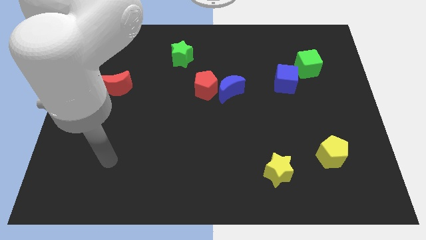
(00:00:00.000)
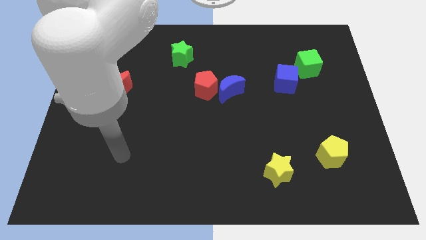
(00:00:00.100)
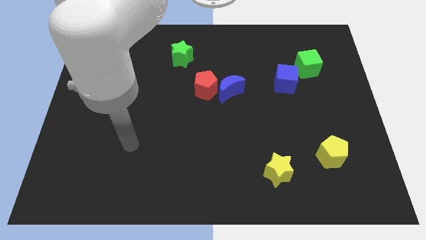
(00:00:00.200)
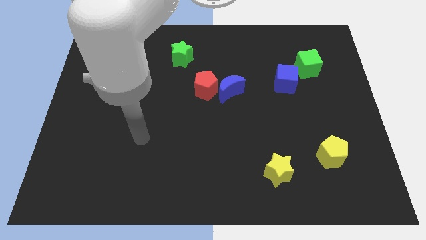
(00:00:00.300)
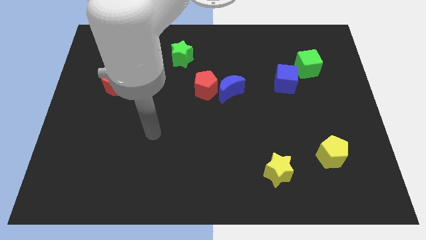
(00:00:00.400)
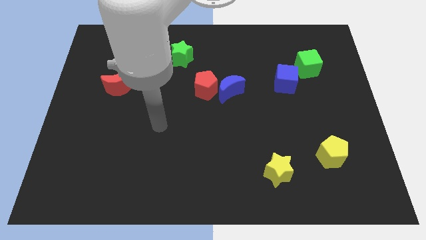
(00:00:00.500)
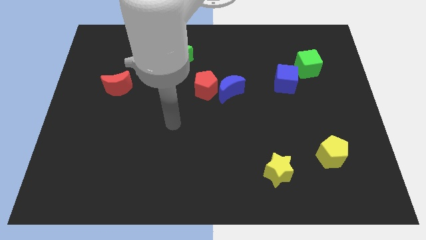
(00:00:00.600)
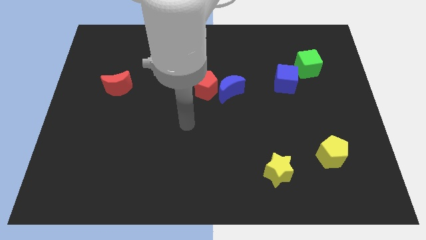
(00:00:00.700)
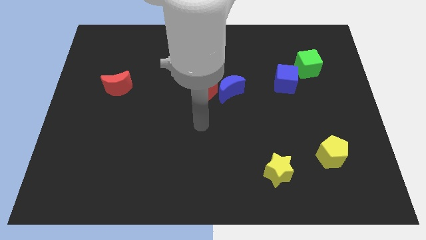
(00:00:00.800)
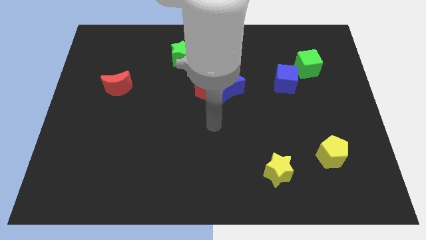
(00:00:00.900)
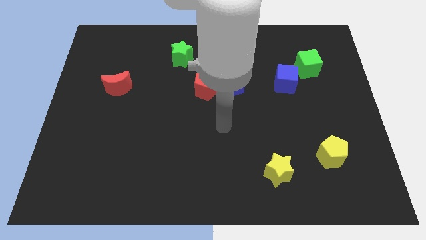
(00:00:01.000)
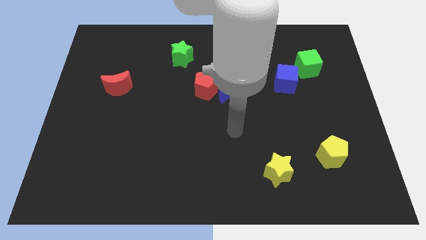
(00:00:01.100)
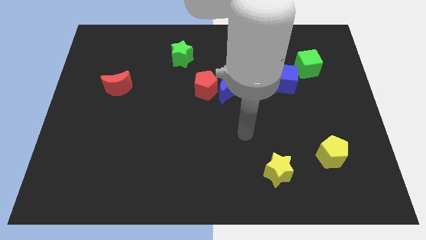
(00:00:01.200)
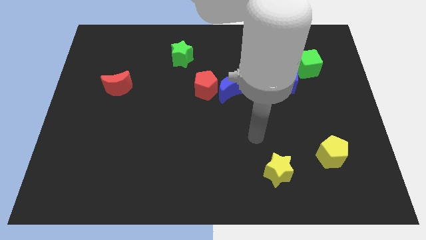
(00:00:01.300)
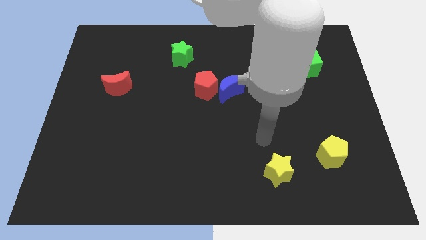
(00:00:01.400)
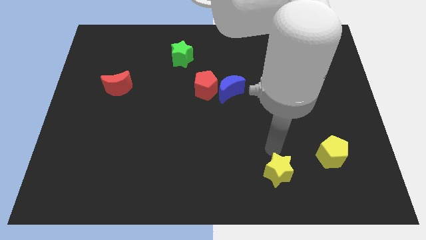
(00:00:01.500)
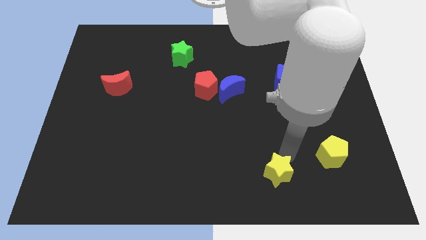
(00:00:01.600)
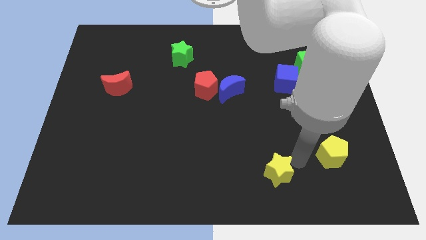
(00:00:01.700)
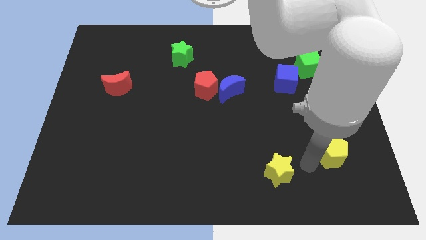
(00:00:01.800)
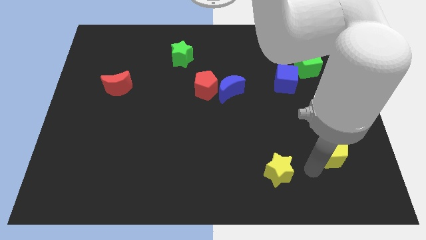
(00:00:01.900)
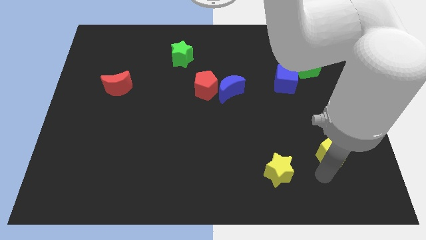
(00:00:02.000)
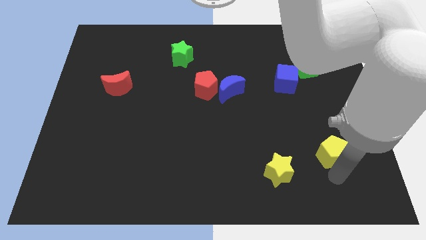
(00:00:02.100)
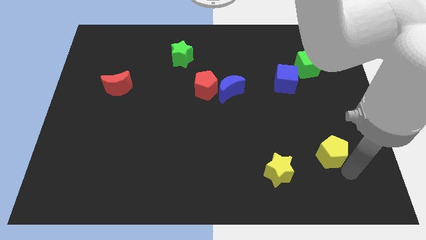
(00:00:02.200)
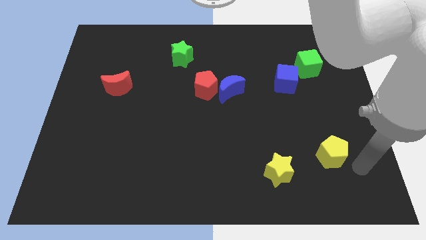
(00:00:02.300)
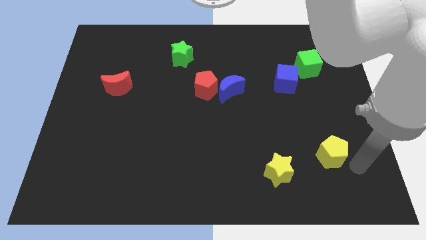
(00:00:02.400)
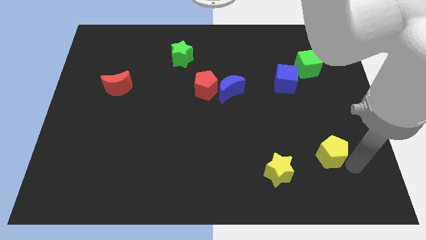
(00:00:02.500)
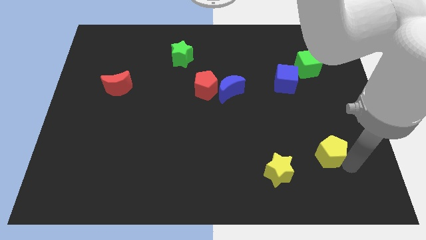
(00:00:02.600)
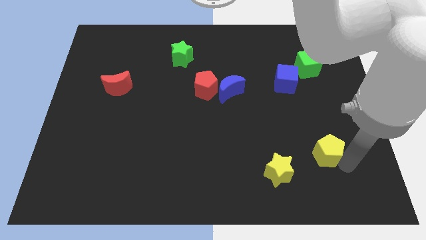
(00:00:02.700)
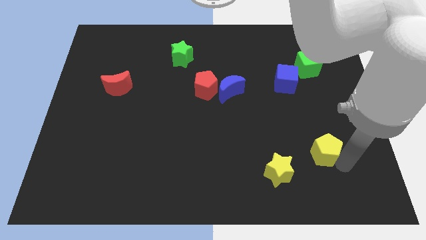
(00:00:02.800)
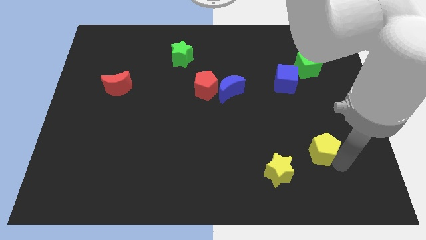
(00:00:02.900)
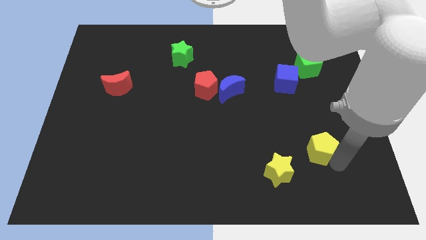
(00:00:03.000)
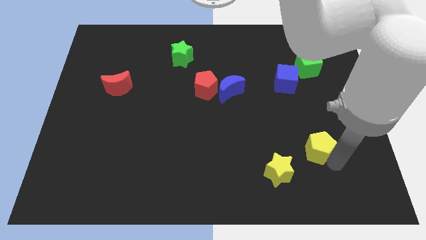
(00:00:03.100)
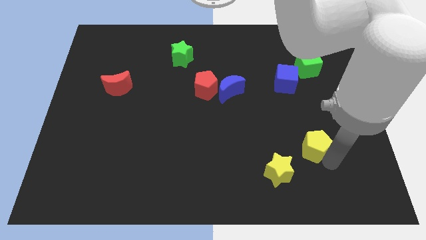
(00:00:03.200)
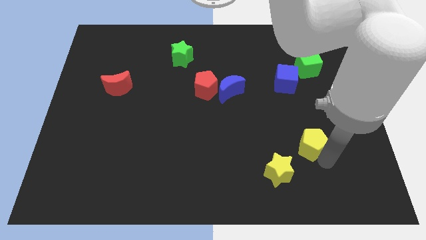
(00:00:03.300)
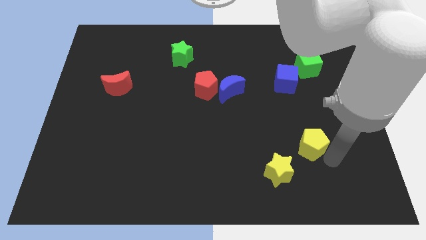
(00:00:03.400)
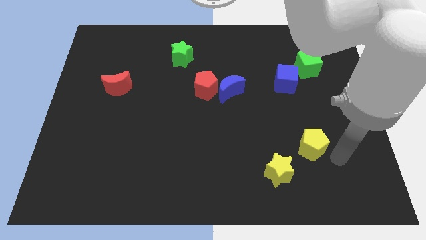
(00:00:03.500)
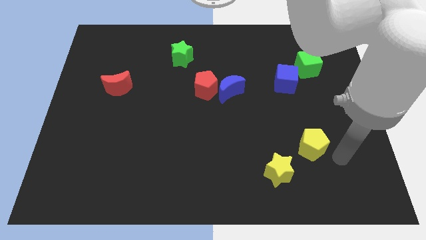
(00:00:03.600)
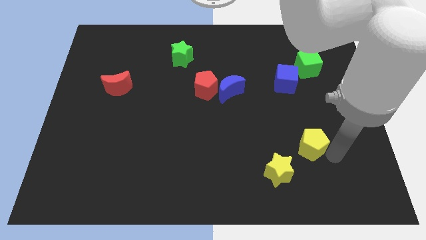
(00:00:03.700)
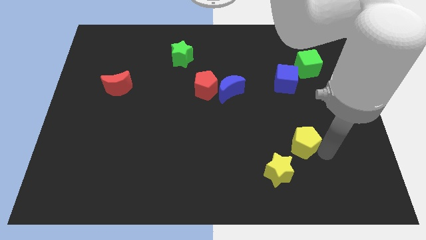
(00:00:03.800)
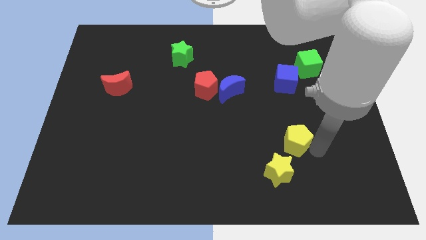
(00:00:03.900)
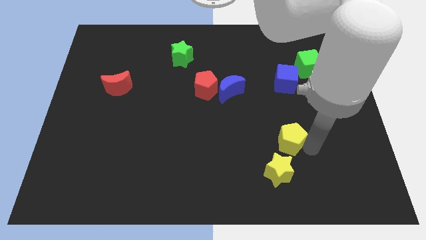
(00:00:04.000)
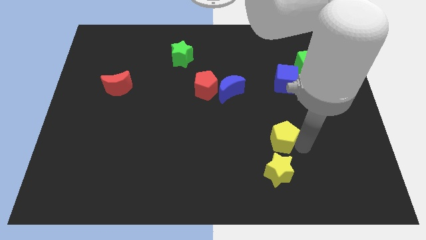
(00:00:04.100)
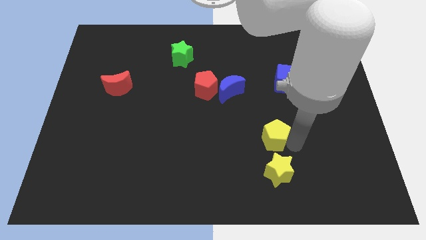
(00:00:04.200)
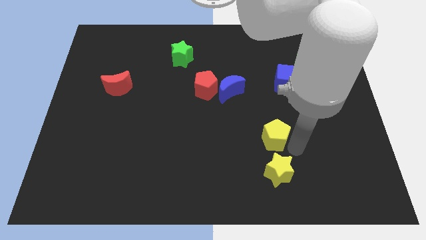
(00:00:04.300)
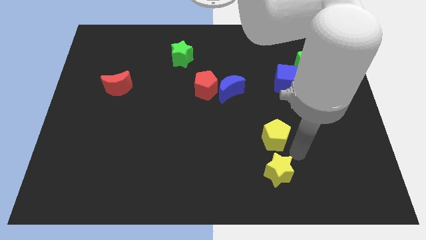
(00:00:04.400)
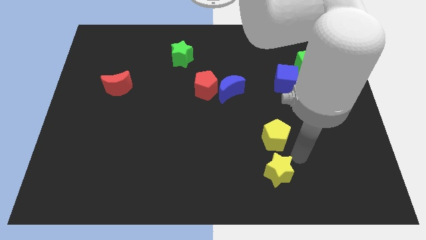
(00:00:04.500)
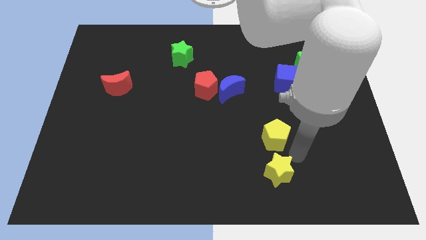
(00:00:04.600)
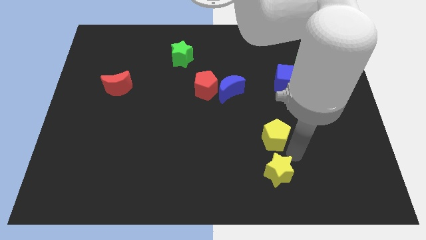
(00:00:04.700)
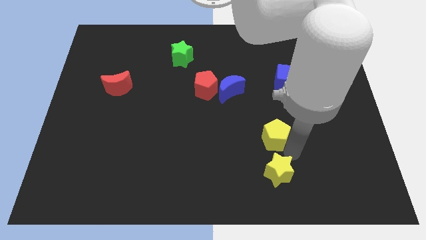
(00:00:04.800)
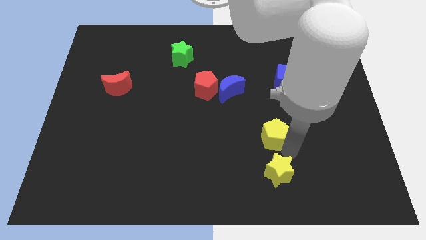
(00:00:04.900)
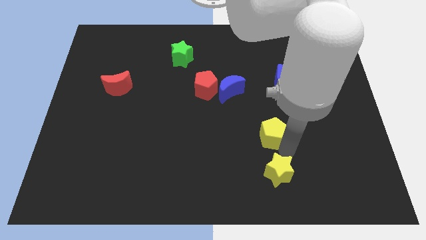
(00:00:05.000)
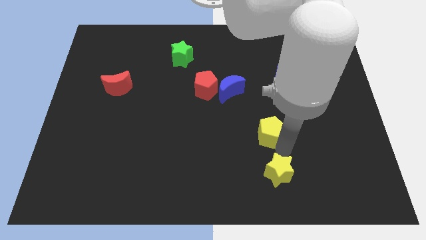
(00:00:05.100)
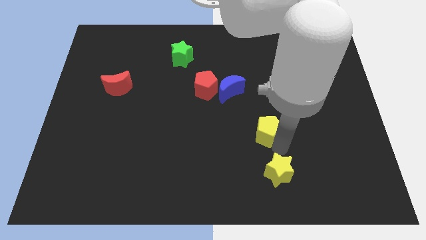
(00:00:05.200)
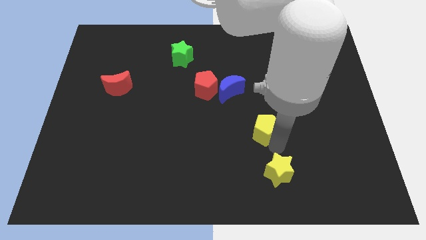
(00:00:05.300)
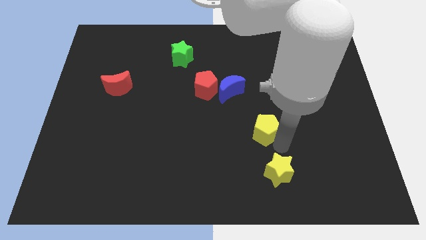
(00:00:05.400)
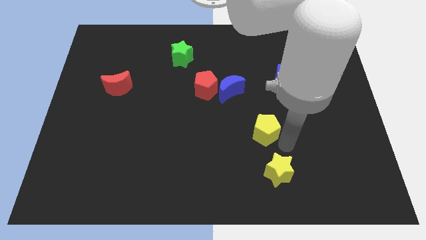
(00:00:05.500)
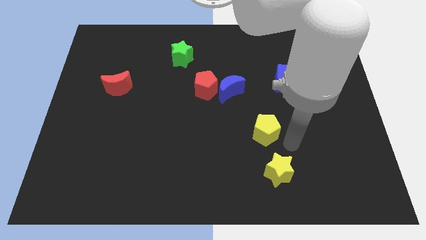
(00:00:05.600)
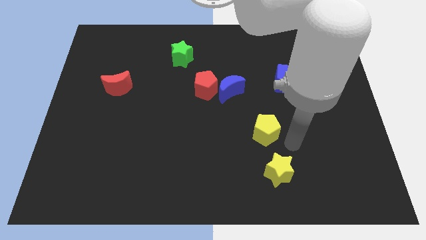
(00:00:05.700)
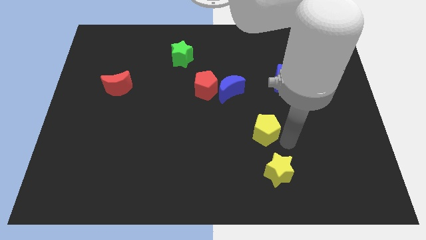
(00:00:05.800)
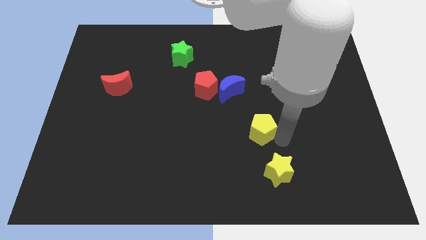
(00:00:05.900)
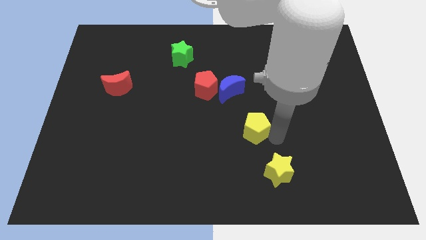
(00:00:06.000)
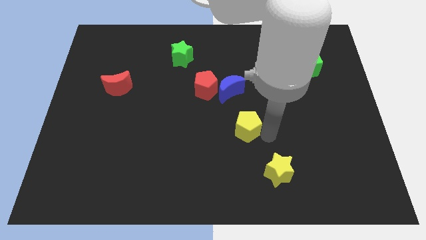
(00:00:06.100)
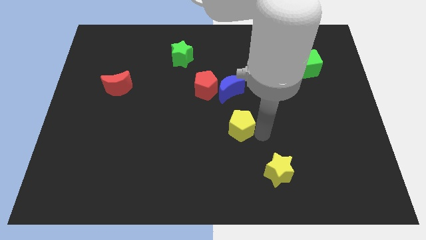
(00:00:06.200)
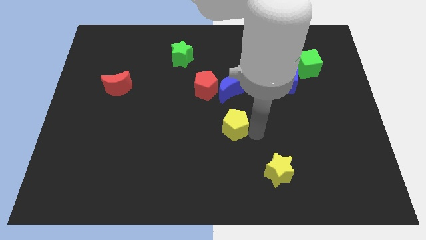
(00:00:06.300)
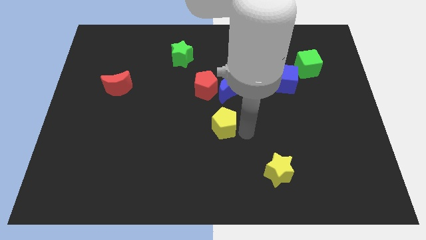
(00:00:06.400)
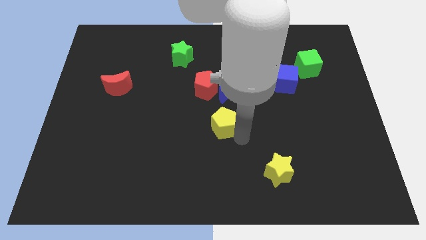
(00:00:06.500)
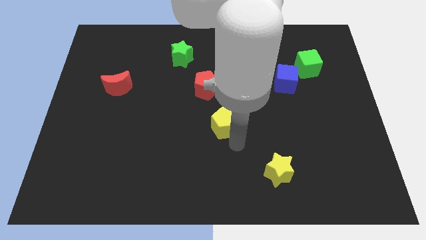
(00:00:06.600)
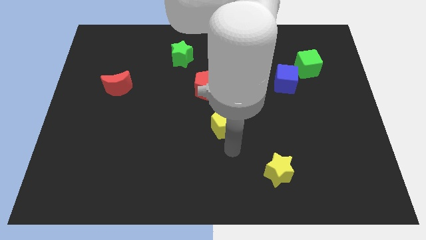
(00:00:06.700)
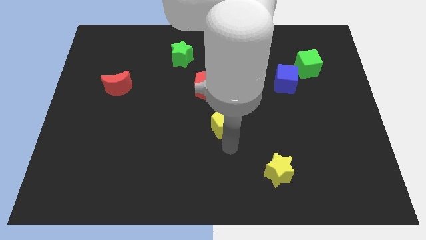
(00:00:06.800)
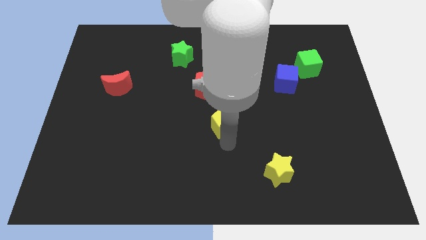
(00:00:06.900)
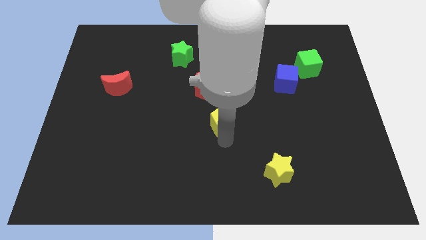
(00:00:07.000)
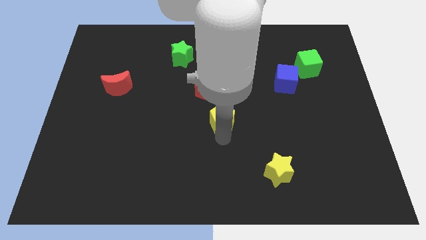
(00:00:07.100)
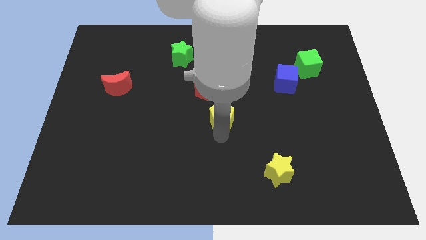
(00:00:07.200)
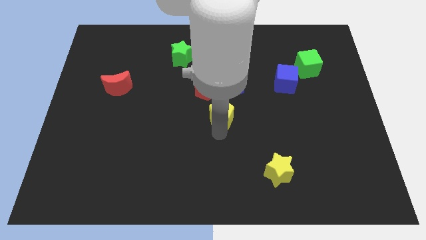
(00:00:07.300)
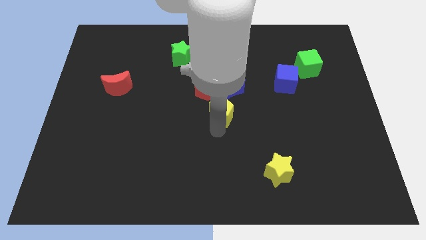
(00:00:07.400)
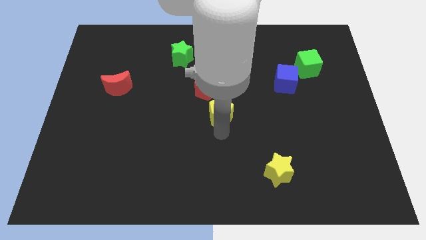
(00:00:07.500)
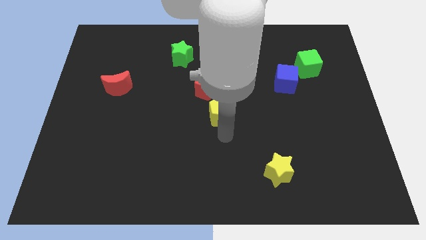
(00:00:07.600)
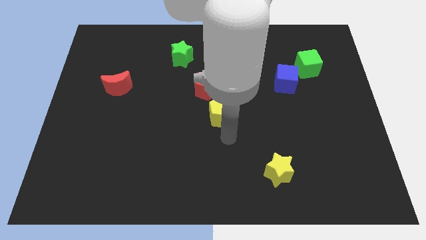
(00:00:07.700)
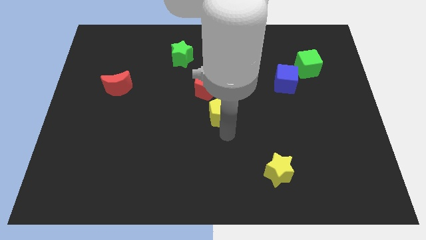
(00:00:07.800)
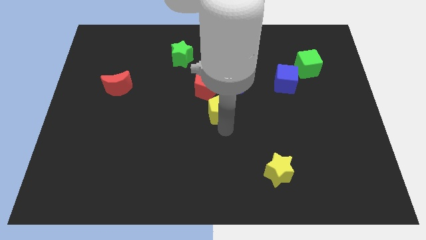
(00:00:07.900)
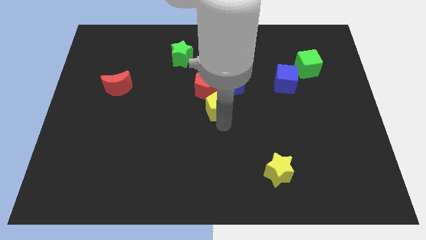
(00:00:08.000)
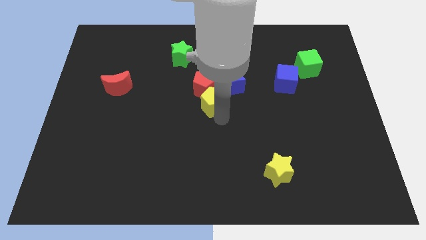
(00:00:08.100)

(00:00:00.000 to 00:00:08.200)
push the yellow pentagon next to the red pentagon
